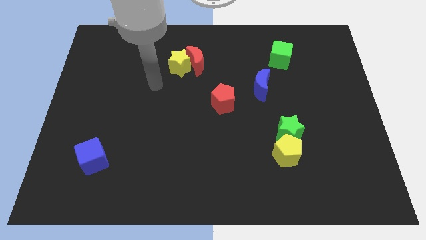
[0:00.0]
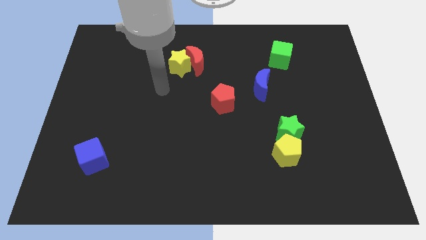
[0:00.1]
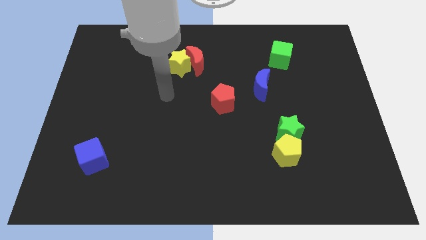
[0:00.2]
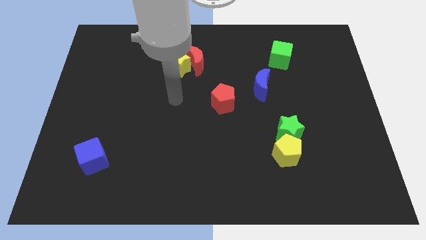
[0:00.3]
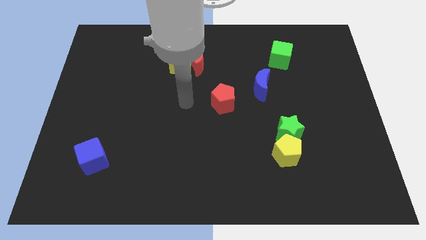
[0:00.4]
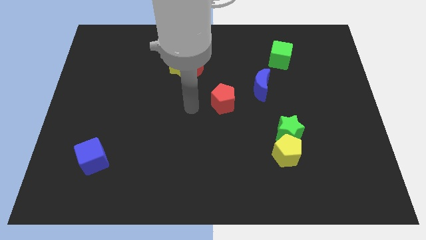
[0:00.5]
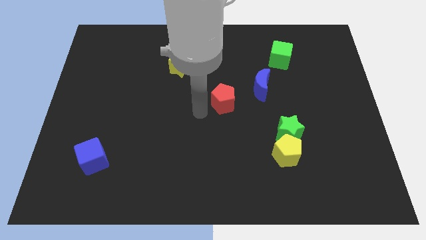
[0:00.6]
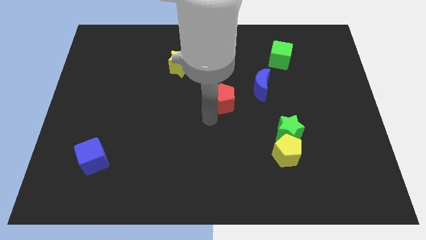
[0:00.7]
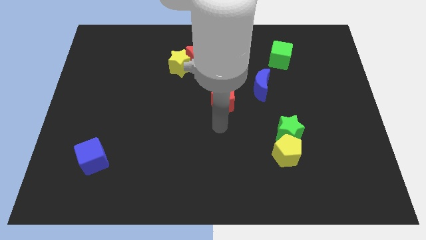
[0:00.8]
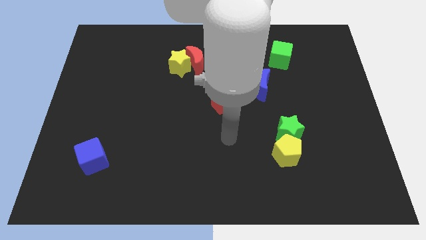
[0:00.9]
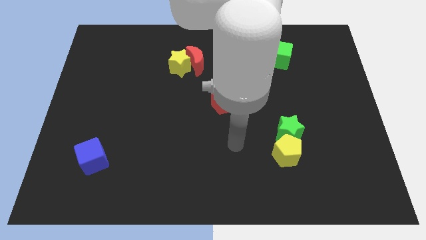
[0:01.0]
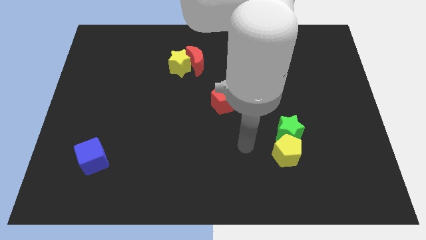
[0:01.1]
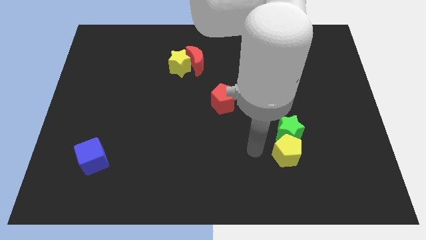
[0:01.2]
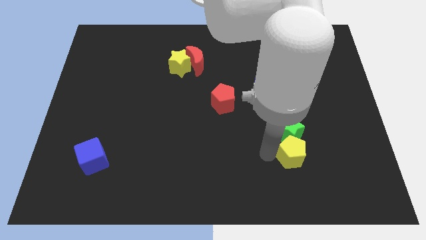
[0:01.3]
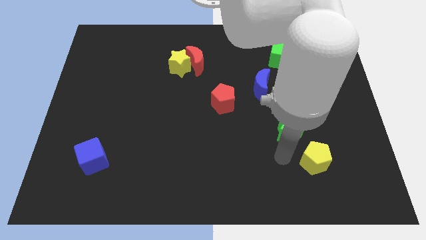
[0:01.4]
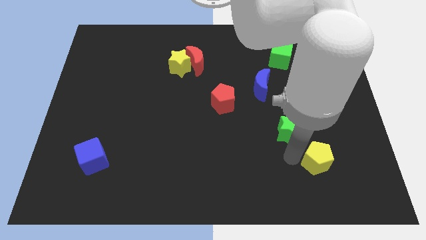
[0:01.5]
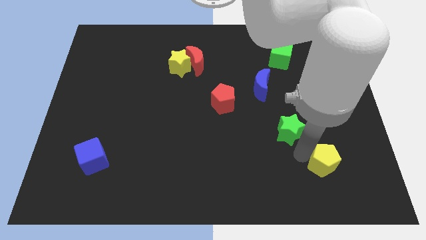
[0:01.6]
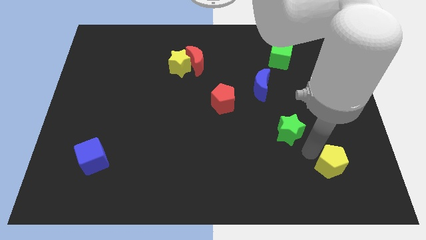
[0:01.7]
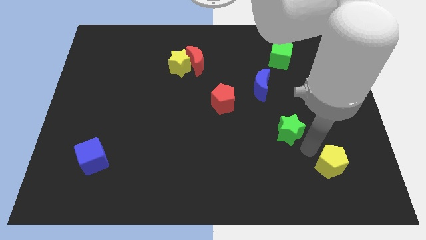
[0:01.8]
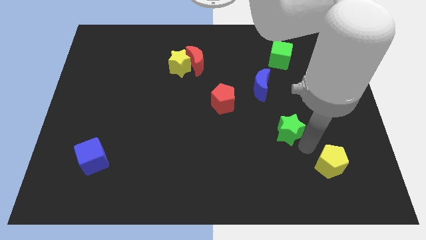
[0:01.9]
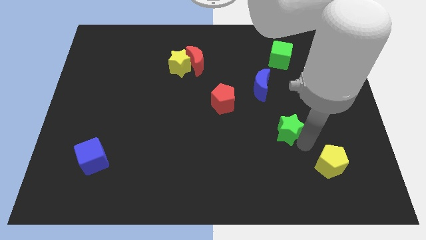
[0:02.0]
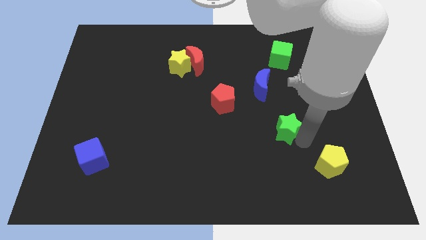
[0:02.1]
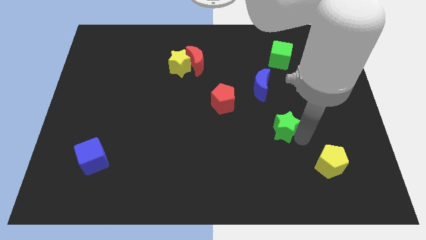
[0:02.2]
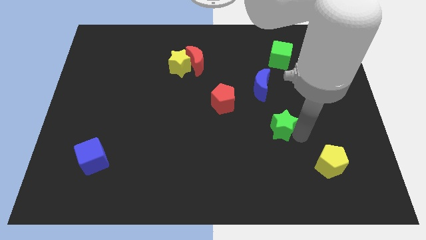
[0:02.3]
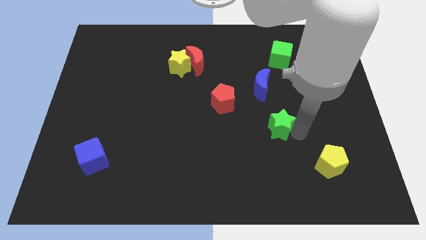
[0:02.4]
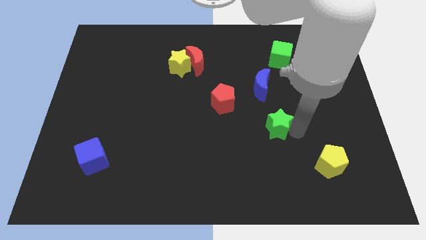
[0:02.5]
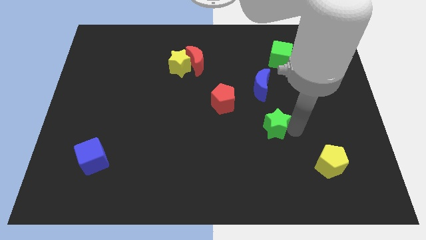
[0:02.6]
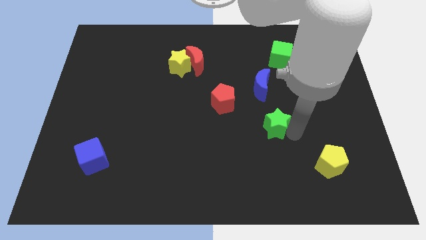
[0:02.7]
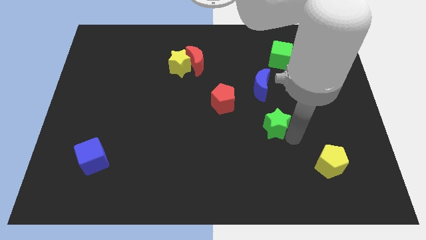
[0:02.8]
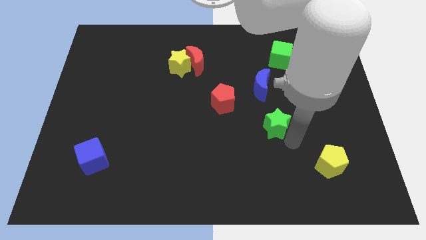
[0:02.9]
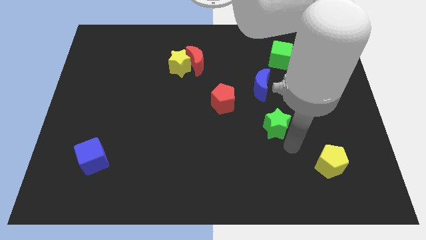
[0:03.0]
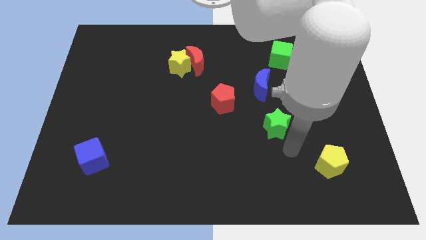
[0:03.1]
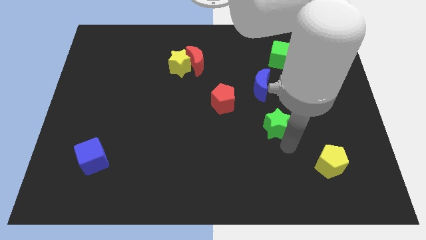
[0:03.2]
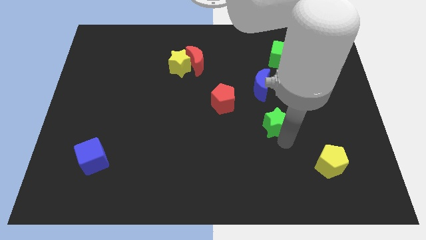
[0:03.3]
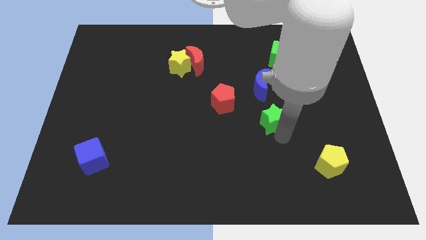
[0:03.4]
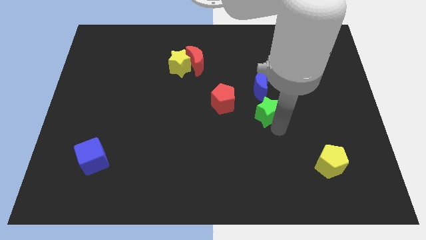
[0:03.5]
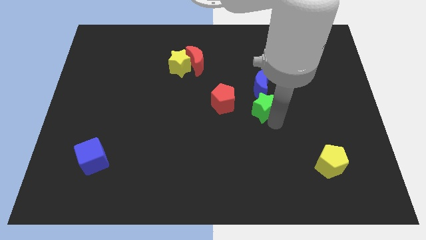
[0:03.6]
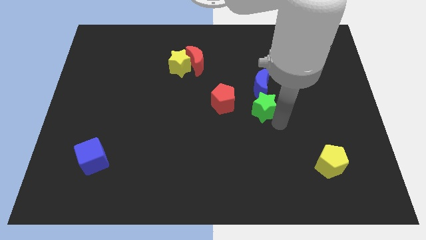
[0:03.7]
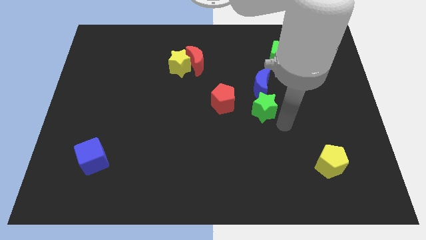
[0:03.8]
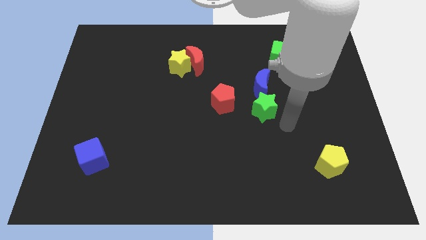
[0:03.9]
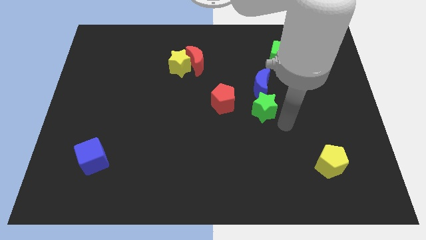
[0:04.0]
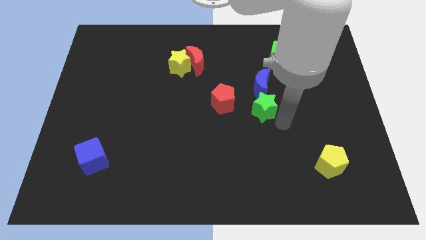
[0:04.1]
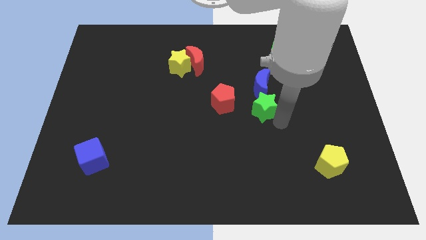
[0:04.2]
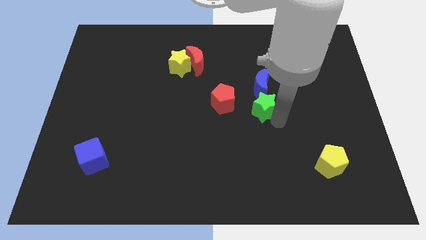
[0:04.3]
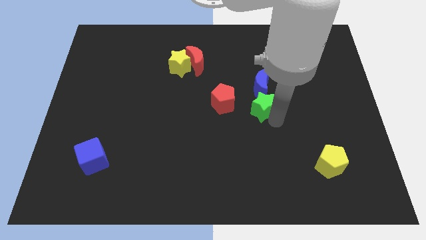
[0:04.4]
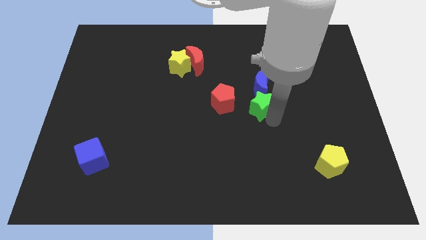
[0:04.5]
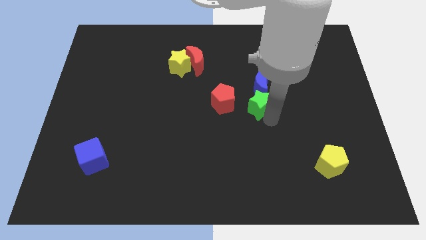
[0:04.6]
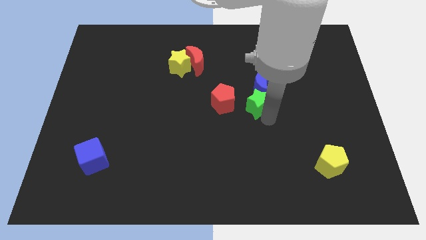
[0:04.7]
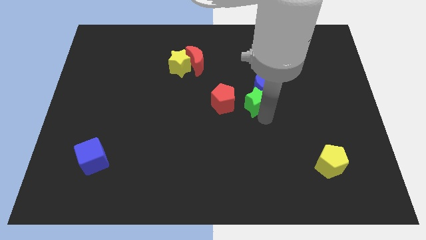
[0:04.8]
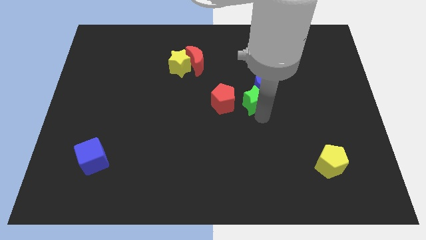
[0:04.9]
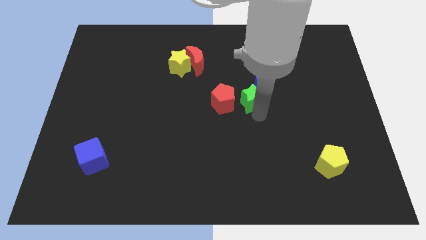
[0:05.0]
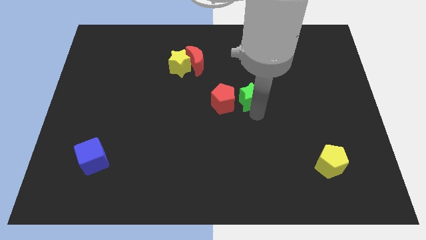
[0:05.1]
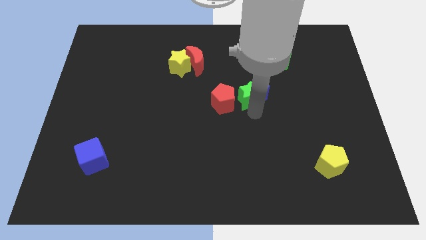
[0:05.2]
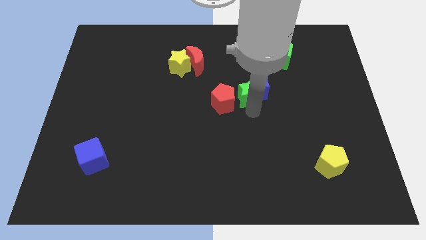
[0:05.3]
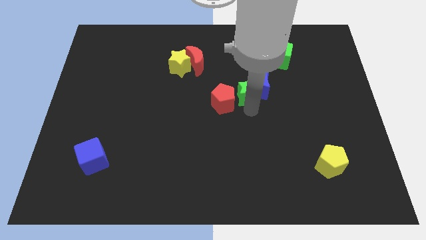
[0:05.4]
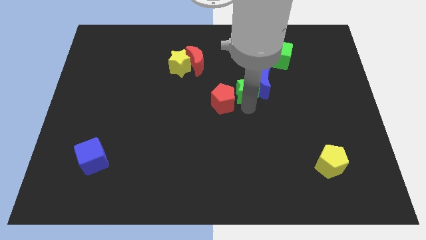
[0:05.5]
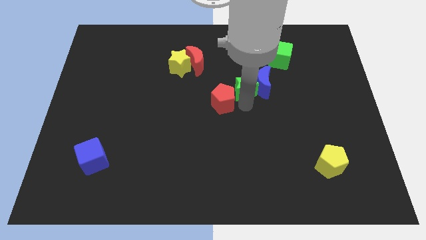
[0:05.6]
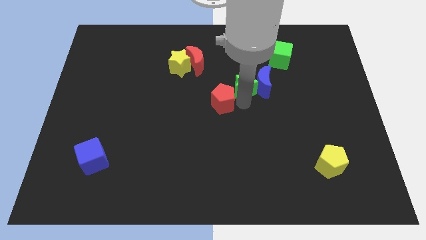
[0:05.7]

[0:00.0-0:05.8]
push the green star diagonally up and to the left of the blue moon

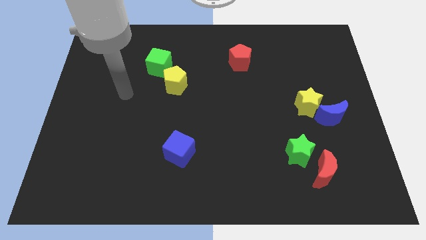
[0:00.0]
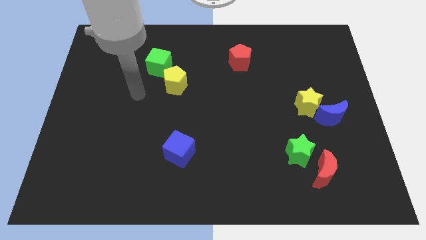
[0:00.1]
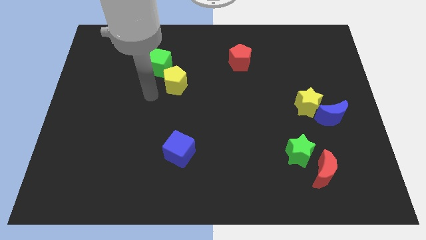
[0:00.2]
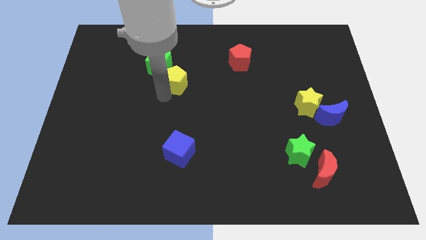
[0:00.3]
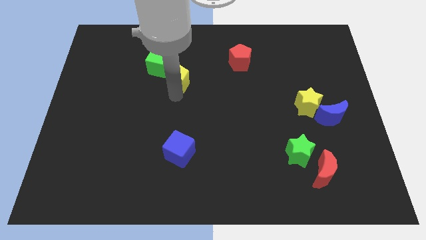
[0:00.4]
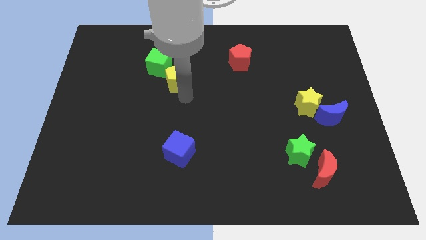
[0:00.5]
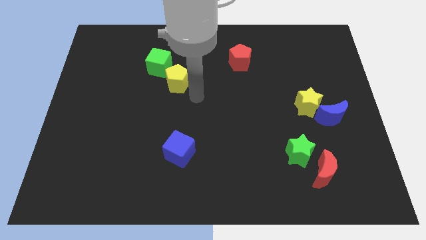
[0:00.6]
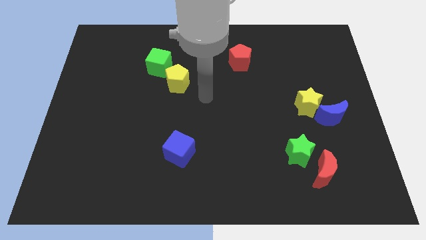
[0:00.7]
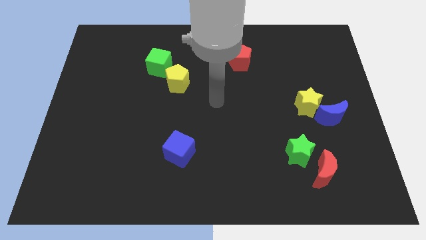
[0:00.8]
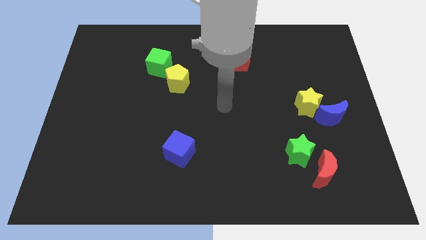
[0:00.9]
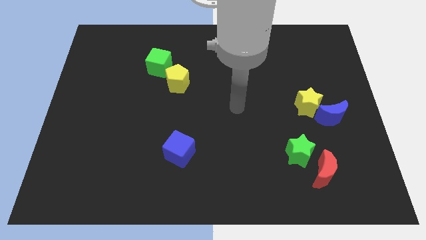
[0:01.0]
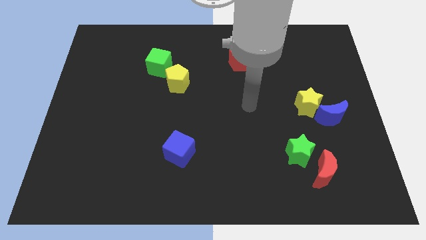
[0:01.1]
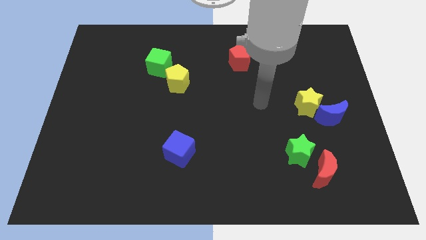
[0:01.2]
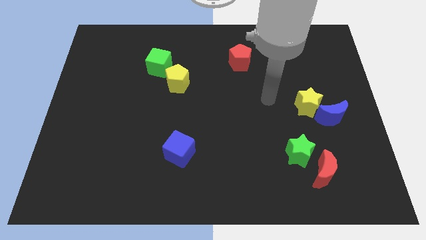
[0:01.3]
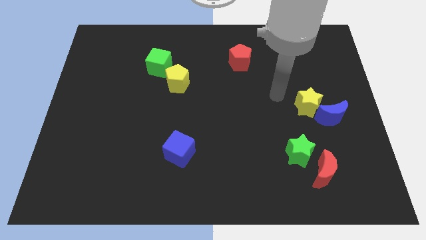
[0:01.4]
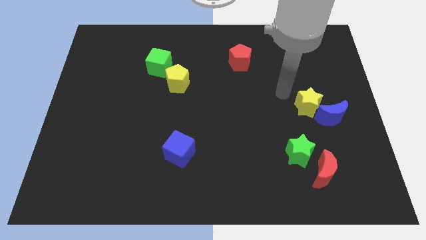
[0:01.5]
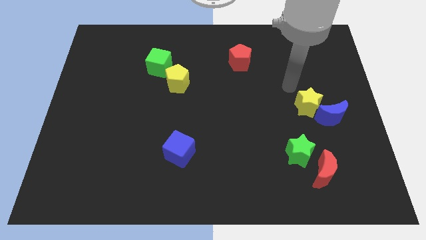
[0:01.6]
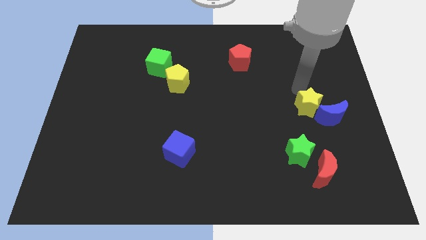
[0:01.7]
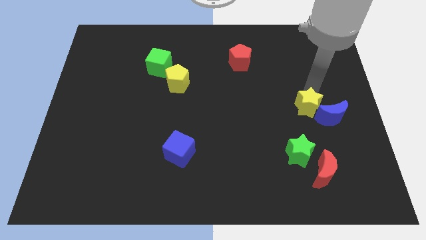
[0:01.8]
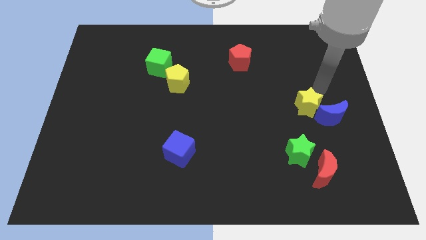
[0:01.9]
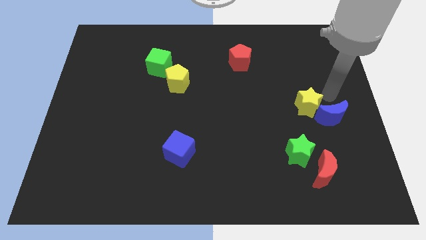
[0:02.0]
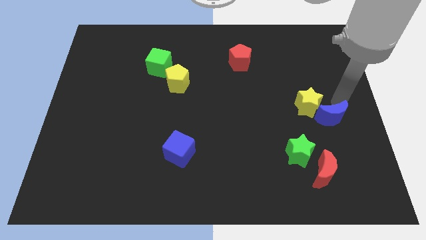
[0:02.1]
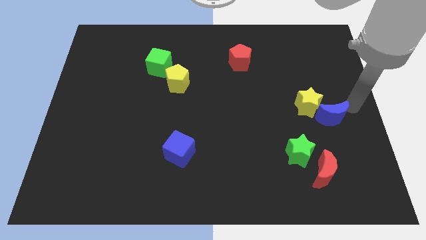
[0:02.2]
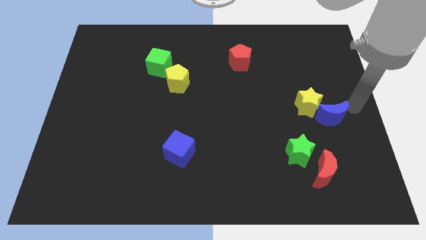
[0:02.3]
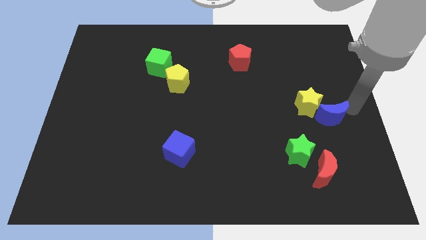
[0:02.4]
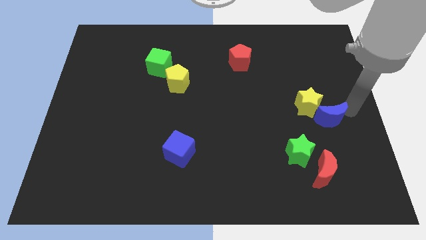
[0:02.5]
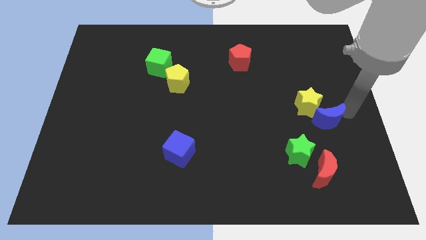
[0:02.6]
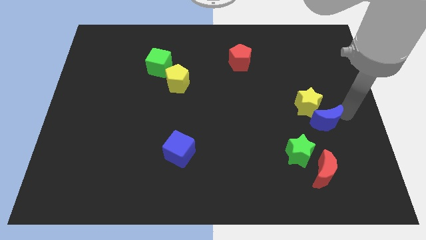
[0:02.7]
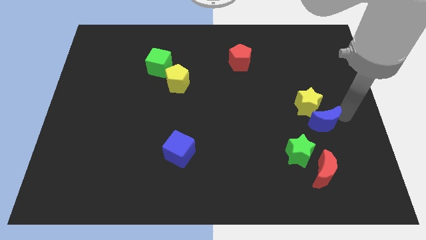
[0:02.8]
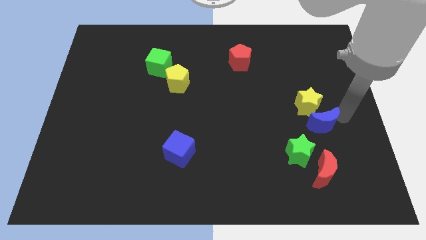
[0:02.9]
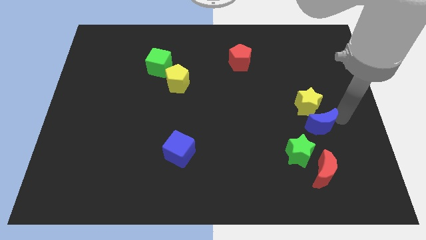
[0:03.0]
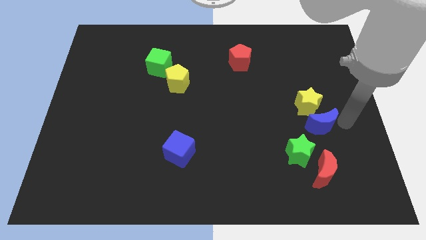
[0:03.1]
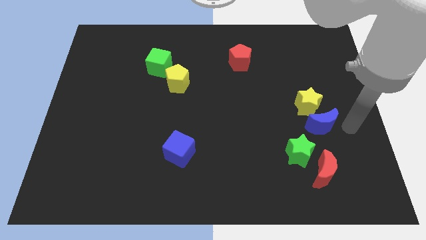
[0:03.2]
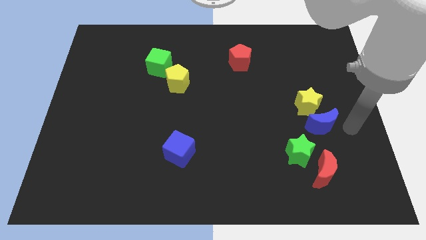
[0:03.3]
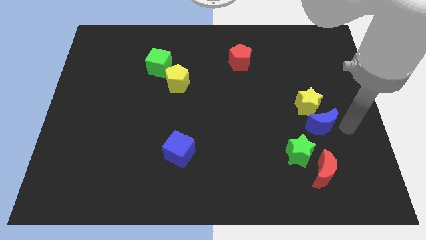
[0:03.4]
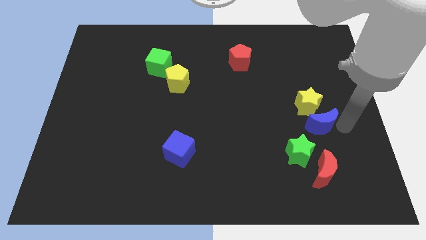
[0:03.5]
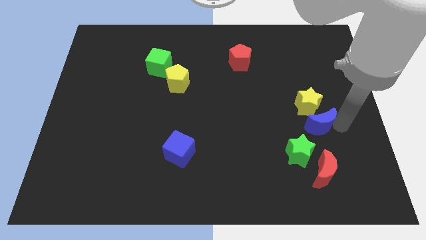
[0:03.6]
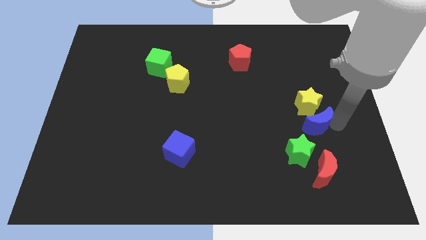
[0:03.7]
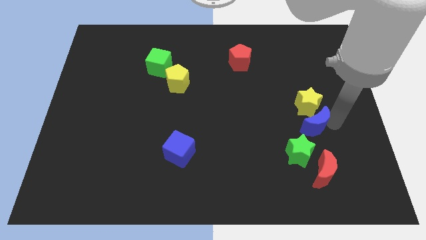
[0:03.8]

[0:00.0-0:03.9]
push the blue moon diagonally down and to the left of the yellow star
